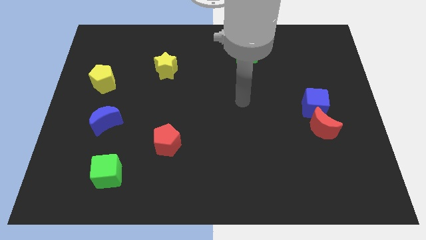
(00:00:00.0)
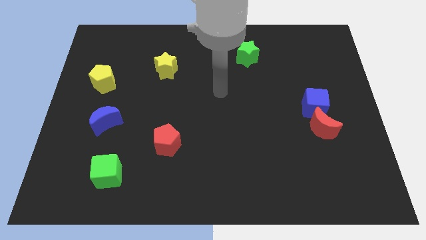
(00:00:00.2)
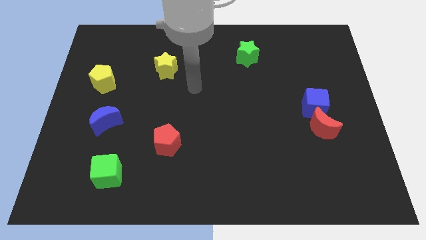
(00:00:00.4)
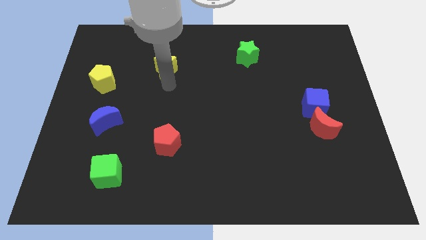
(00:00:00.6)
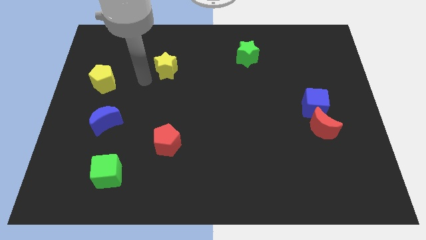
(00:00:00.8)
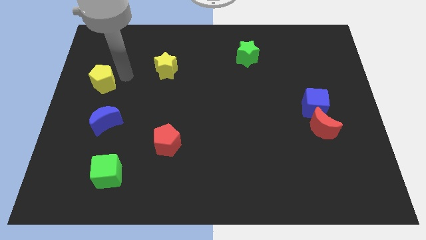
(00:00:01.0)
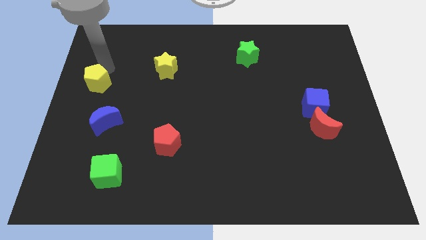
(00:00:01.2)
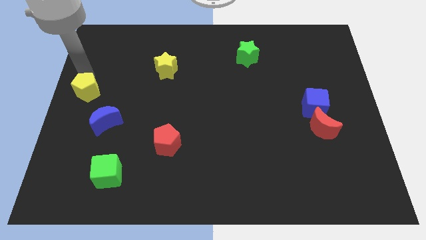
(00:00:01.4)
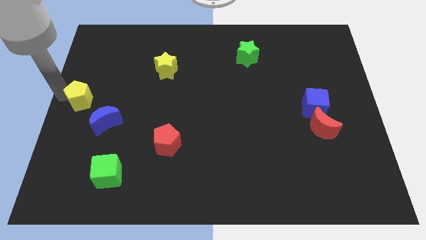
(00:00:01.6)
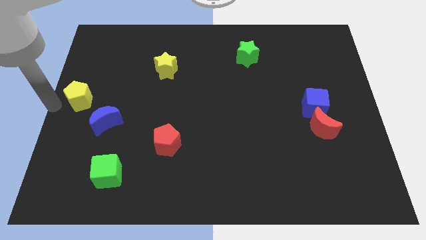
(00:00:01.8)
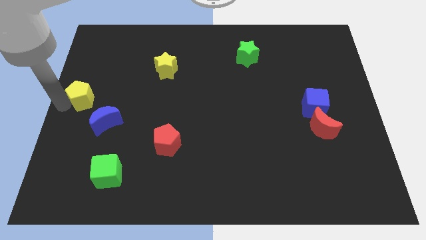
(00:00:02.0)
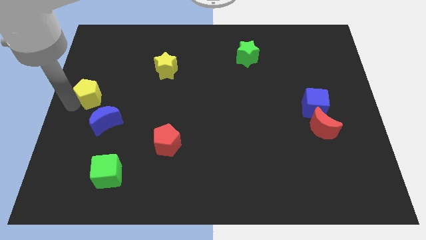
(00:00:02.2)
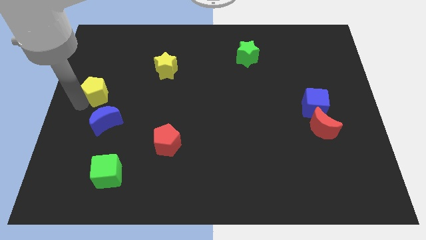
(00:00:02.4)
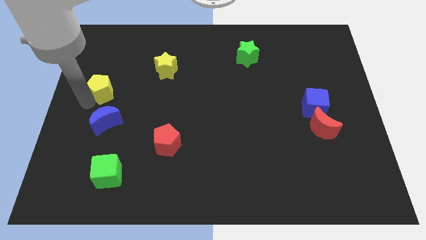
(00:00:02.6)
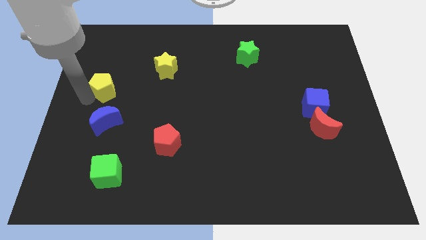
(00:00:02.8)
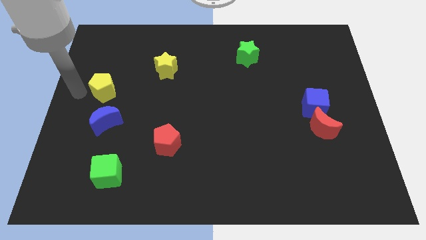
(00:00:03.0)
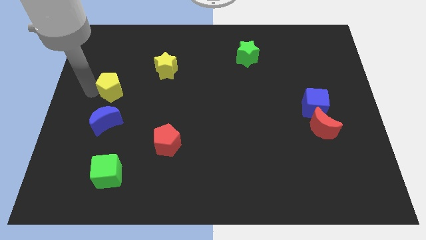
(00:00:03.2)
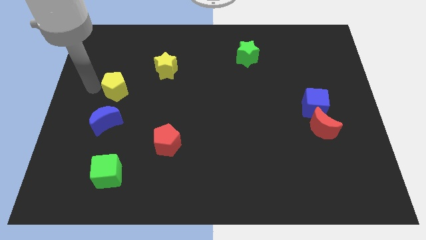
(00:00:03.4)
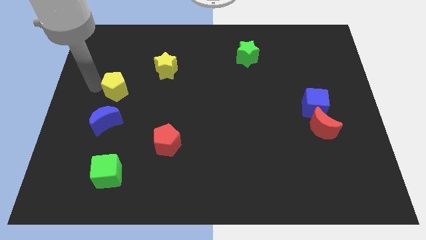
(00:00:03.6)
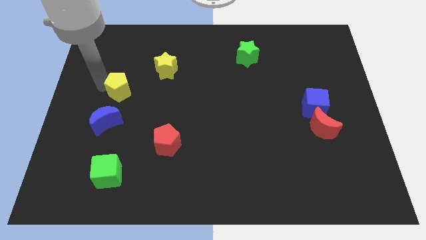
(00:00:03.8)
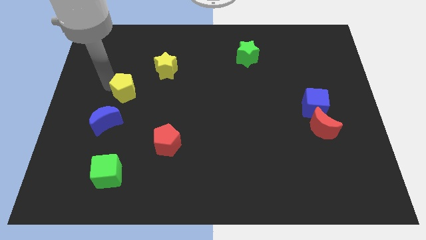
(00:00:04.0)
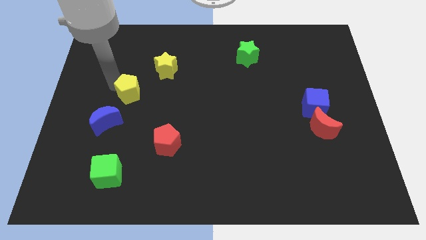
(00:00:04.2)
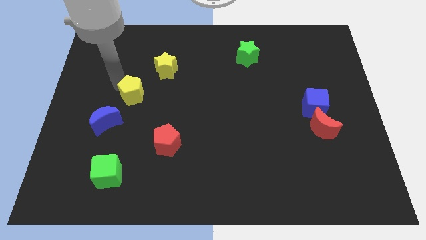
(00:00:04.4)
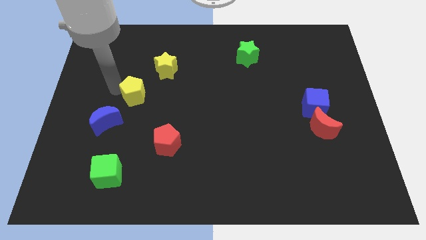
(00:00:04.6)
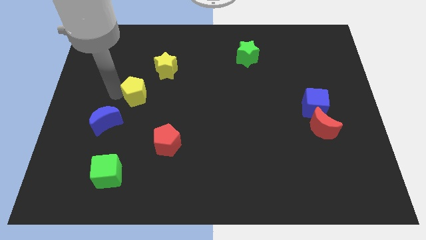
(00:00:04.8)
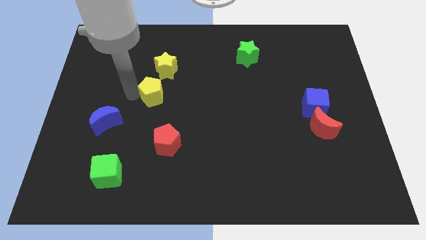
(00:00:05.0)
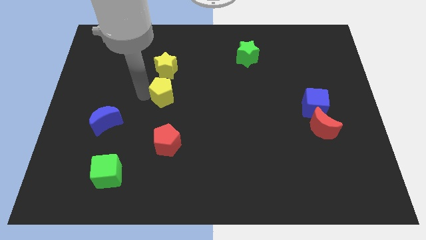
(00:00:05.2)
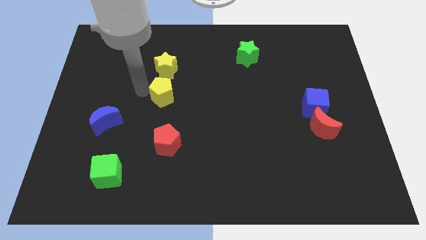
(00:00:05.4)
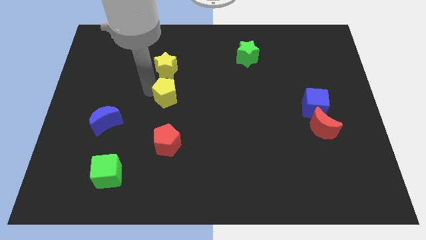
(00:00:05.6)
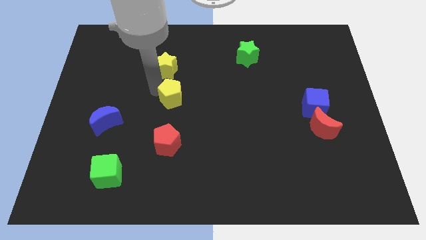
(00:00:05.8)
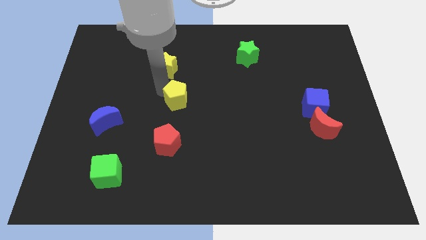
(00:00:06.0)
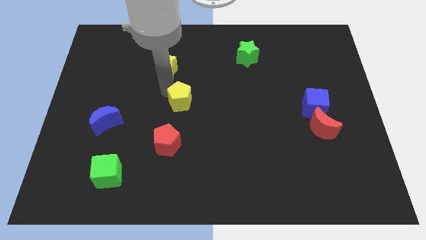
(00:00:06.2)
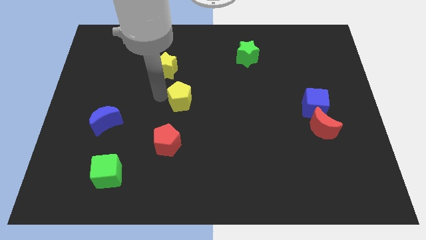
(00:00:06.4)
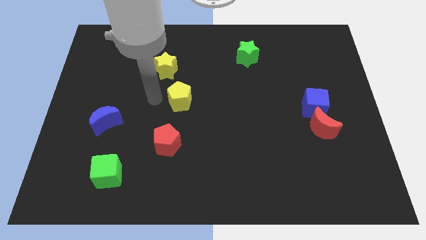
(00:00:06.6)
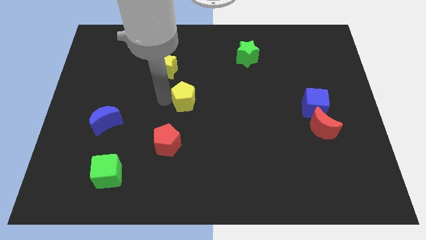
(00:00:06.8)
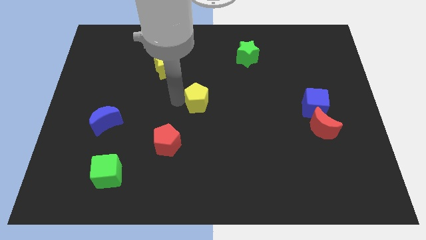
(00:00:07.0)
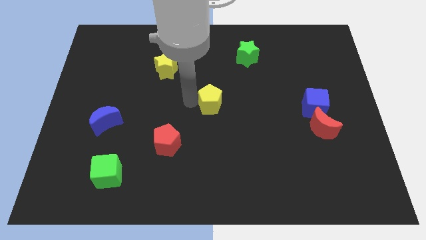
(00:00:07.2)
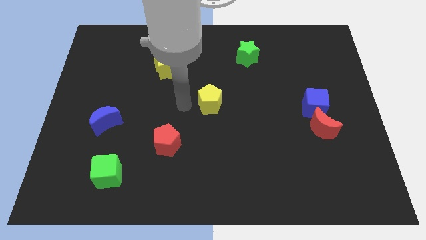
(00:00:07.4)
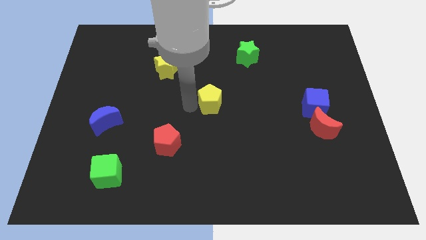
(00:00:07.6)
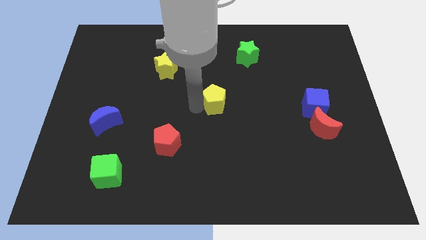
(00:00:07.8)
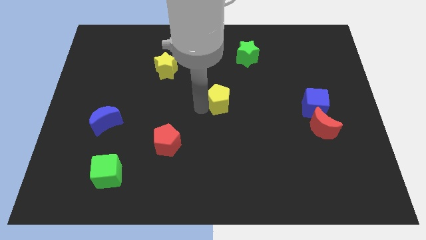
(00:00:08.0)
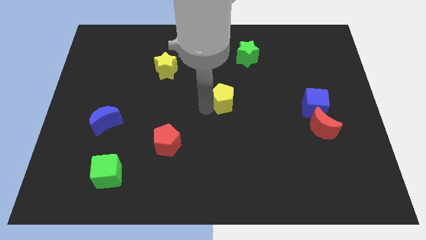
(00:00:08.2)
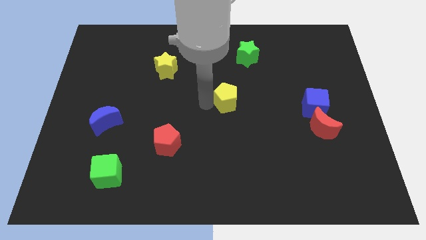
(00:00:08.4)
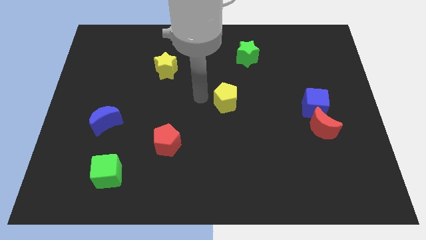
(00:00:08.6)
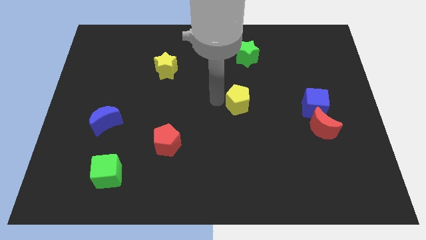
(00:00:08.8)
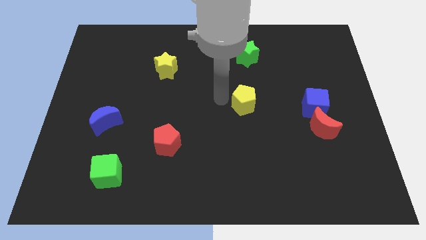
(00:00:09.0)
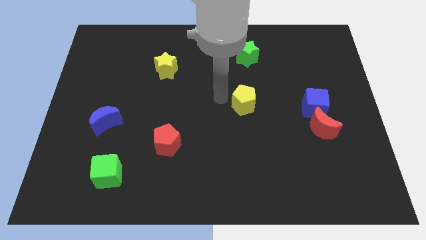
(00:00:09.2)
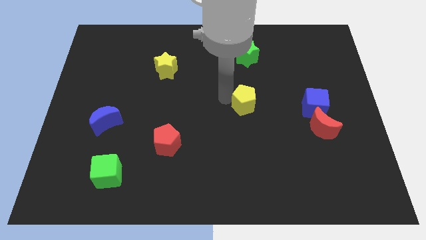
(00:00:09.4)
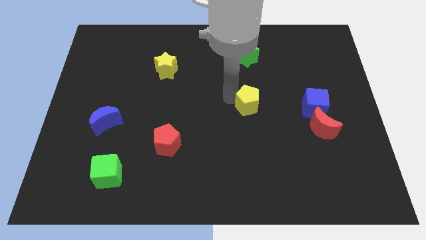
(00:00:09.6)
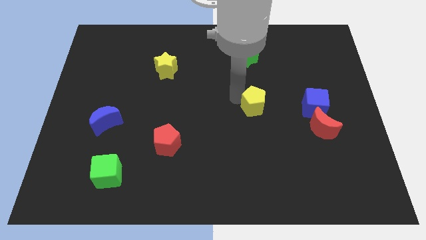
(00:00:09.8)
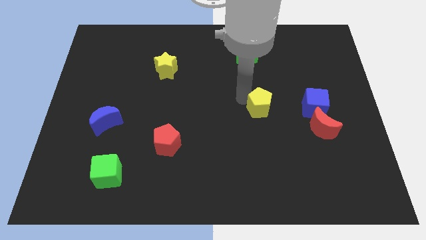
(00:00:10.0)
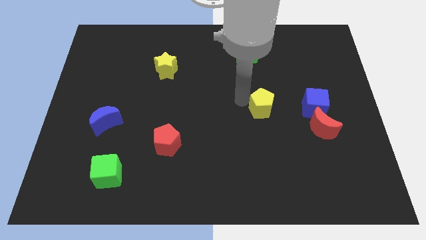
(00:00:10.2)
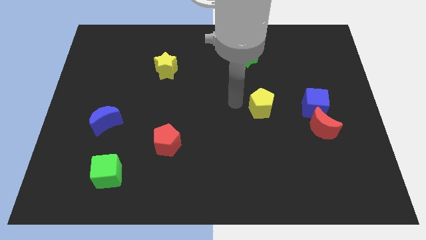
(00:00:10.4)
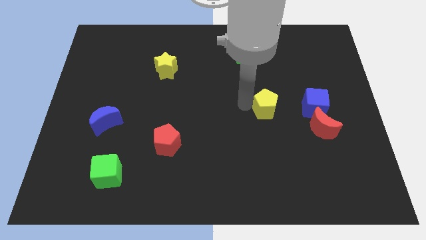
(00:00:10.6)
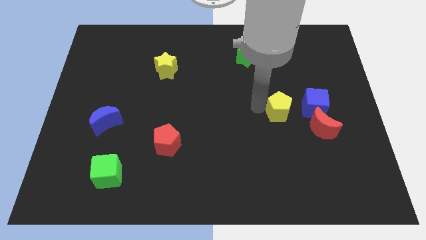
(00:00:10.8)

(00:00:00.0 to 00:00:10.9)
move the yellow pentagon diagonally up and to the left of the red moon

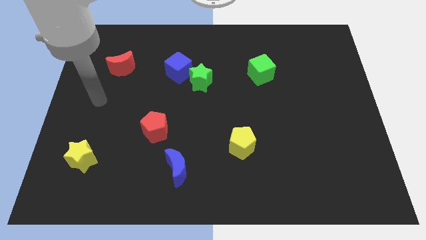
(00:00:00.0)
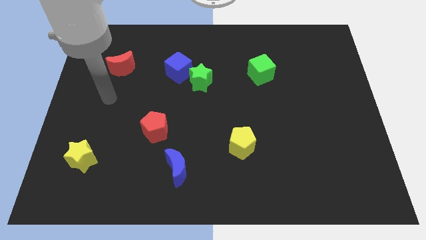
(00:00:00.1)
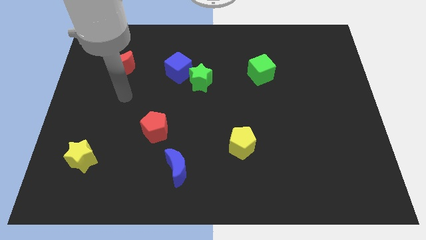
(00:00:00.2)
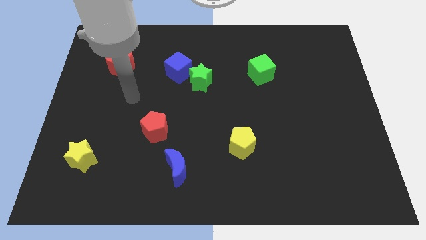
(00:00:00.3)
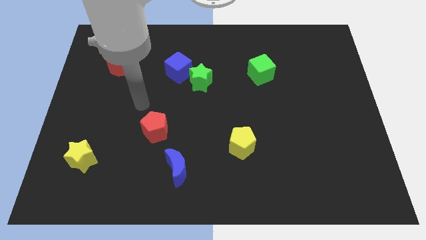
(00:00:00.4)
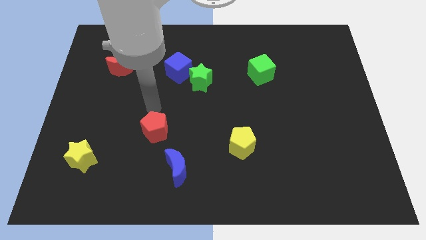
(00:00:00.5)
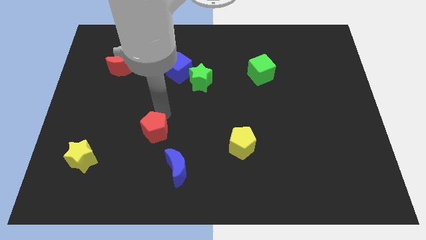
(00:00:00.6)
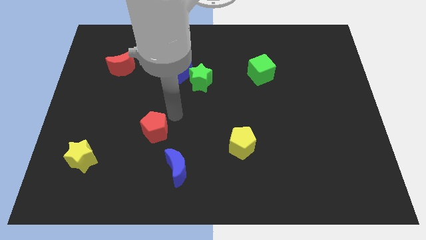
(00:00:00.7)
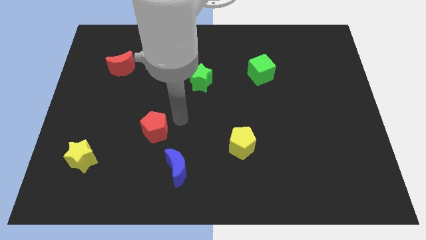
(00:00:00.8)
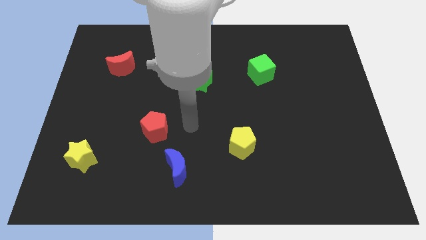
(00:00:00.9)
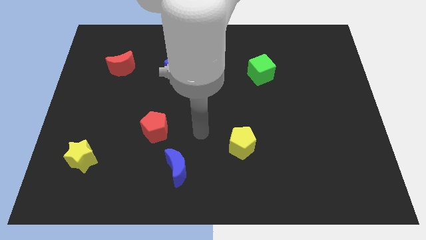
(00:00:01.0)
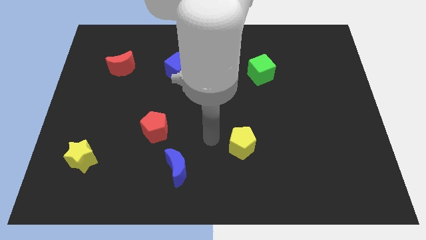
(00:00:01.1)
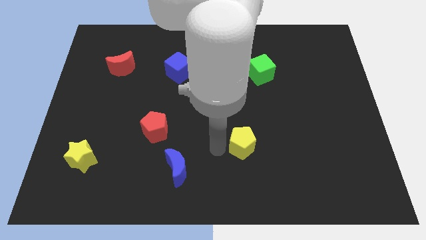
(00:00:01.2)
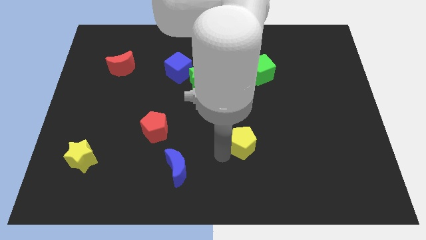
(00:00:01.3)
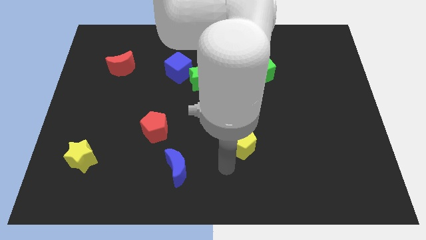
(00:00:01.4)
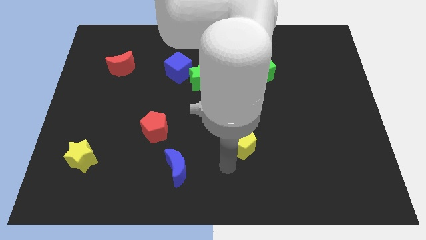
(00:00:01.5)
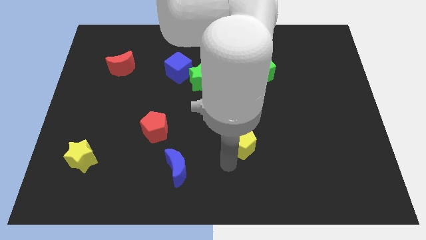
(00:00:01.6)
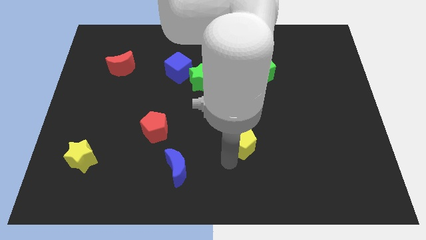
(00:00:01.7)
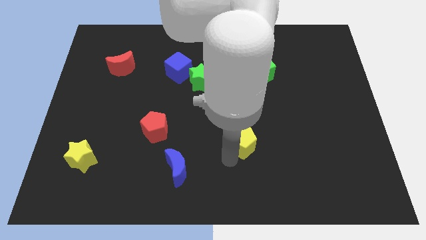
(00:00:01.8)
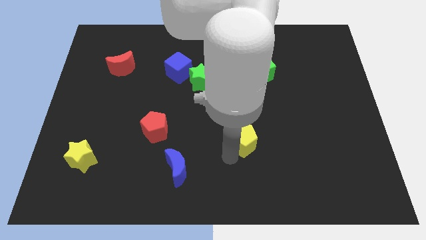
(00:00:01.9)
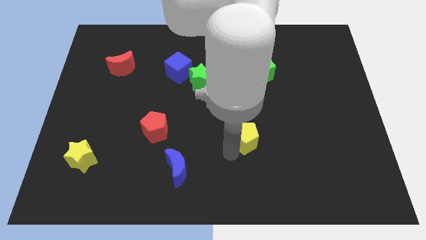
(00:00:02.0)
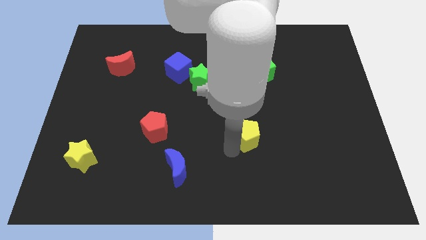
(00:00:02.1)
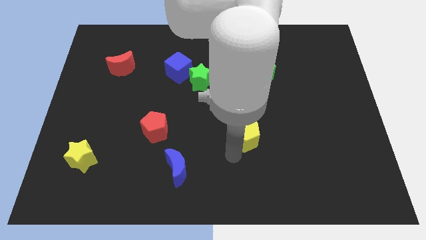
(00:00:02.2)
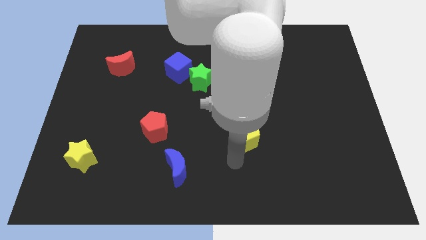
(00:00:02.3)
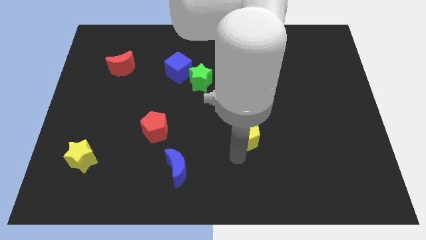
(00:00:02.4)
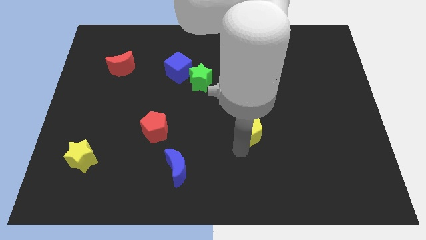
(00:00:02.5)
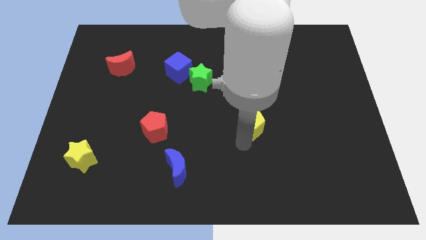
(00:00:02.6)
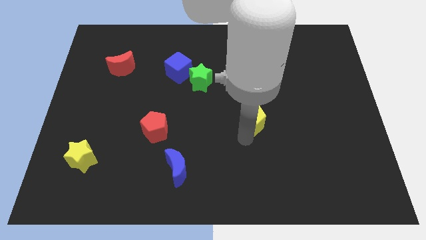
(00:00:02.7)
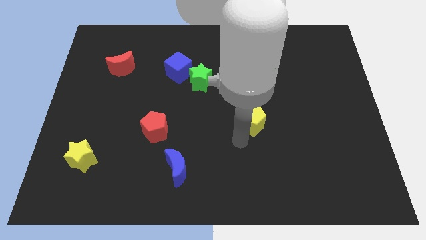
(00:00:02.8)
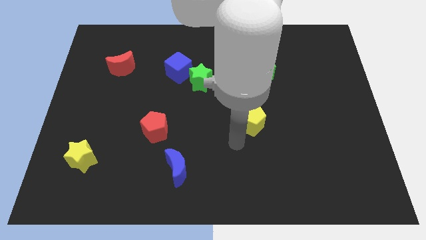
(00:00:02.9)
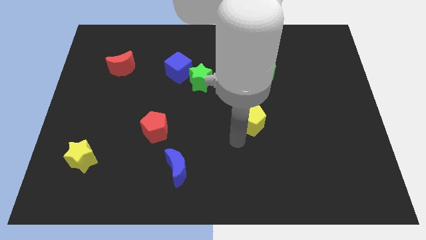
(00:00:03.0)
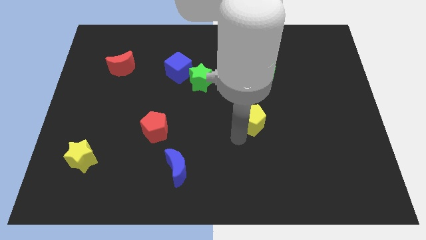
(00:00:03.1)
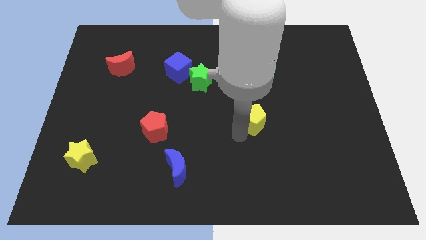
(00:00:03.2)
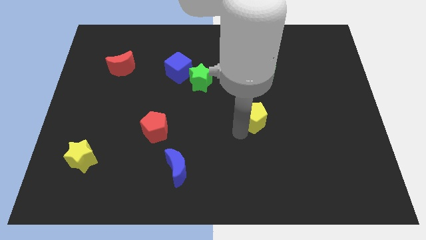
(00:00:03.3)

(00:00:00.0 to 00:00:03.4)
slide the yellow pentagon below the green cube

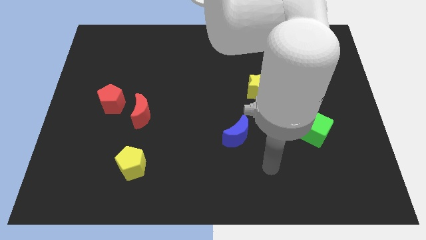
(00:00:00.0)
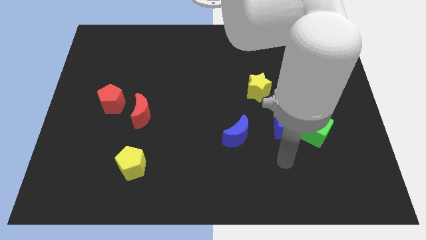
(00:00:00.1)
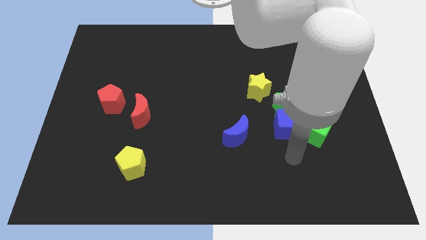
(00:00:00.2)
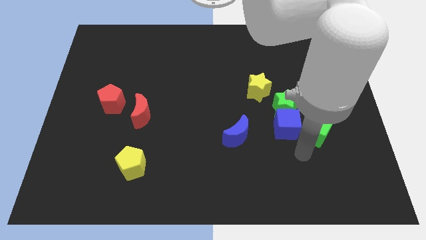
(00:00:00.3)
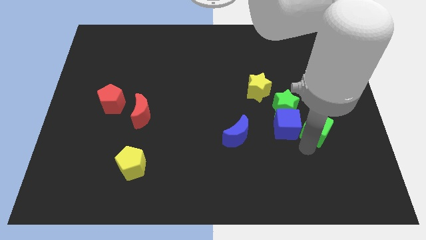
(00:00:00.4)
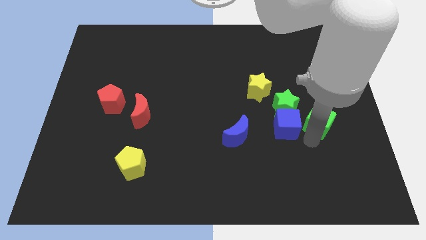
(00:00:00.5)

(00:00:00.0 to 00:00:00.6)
push the green cube just right of the green star
